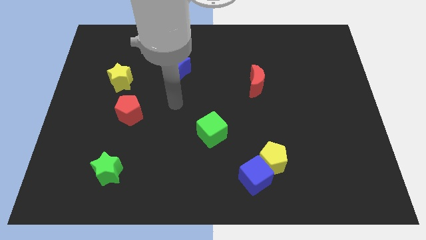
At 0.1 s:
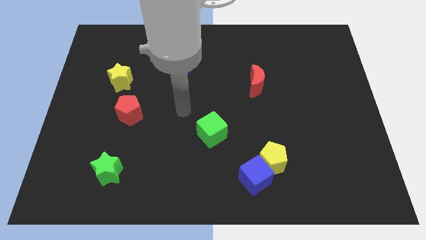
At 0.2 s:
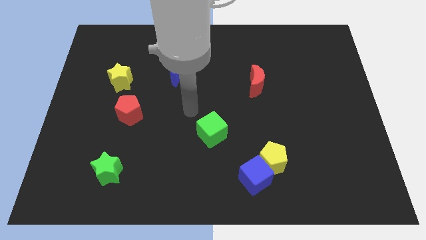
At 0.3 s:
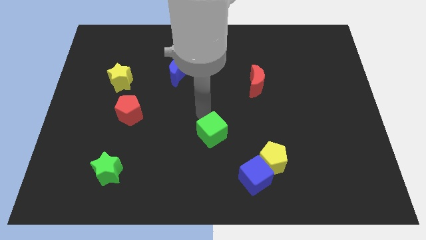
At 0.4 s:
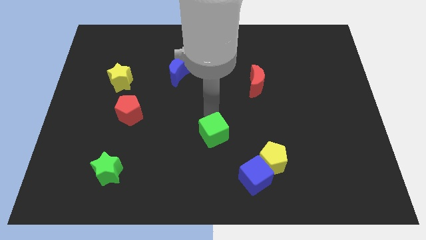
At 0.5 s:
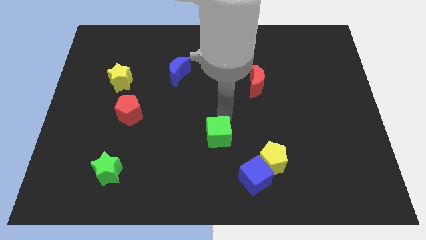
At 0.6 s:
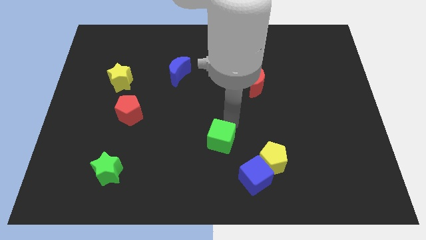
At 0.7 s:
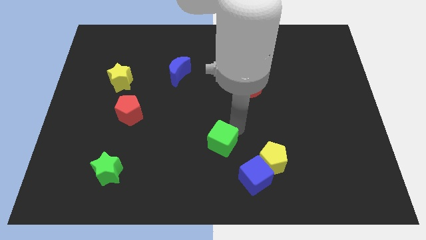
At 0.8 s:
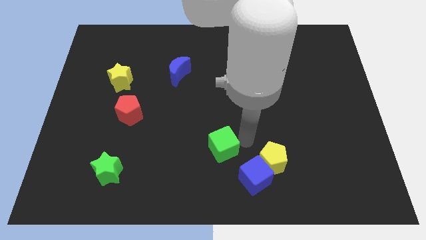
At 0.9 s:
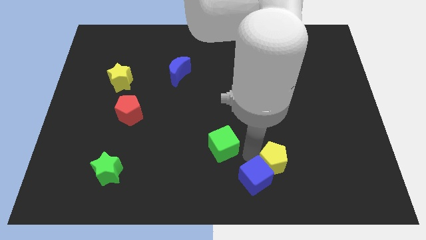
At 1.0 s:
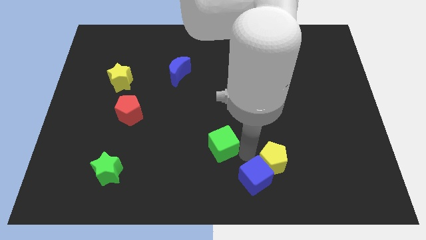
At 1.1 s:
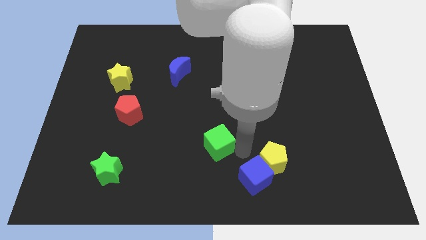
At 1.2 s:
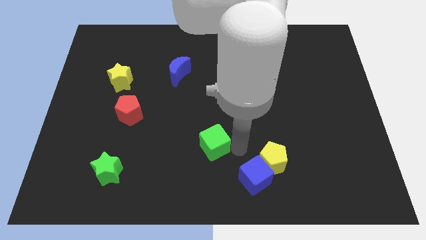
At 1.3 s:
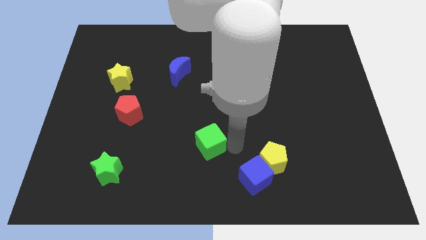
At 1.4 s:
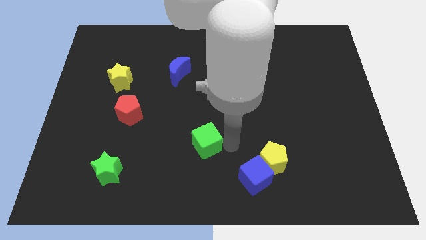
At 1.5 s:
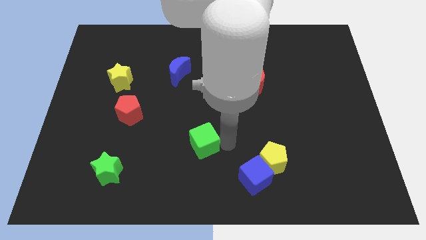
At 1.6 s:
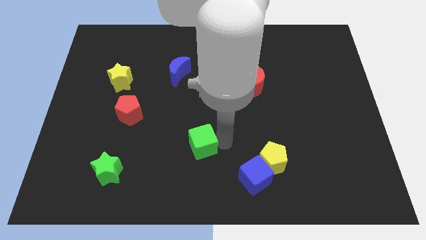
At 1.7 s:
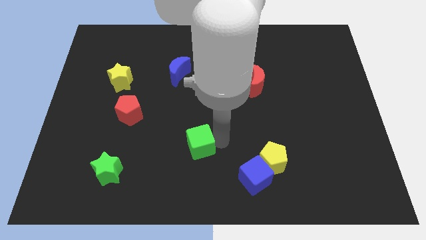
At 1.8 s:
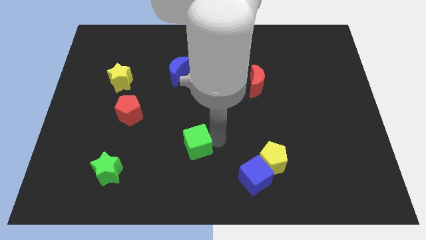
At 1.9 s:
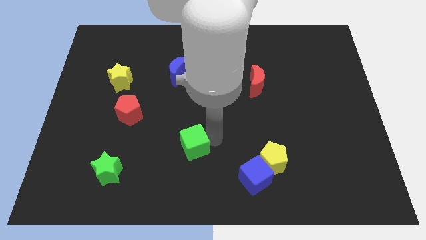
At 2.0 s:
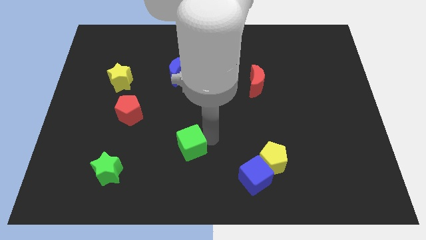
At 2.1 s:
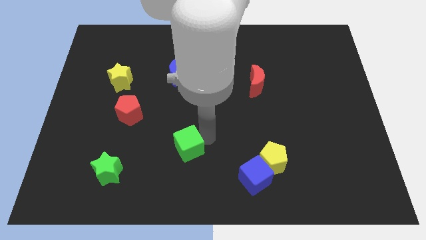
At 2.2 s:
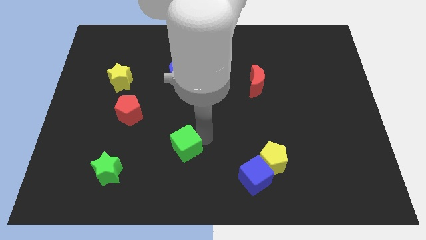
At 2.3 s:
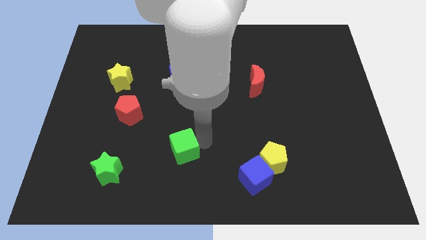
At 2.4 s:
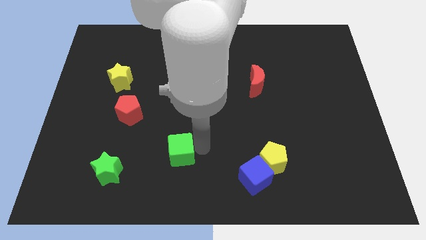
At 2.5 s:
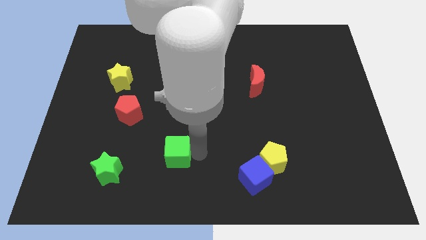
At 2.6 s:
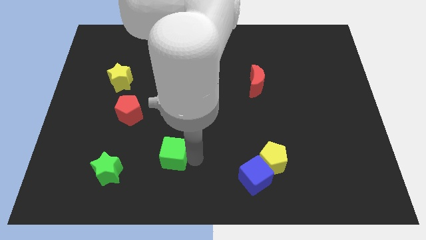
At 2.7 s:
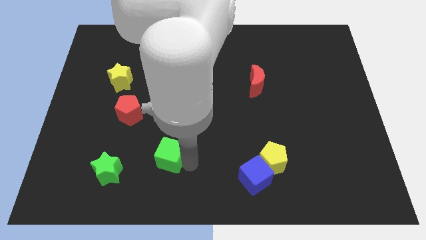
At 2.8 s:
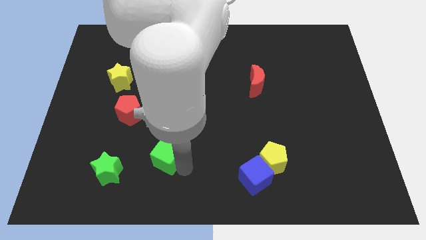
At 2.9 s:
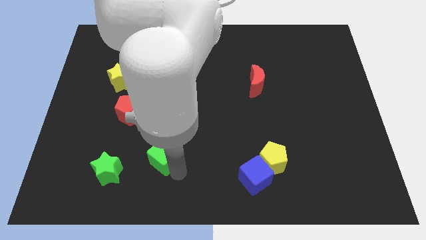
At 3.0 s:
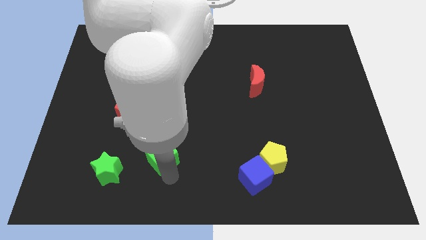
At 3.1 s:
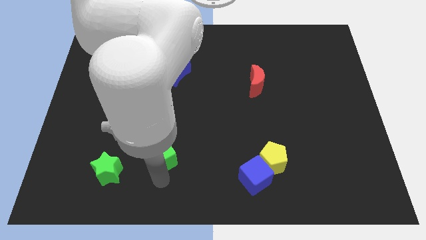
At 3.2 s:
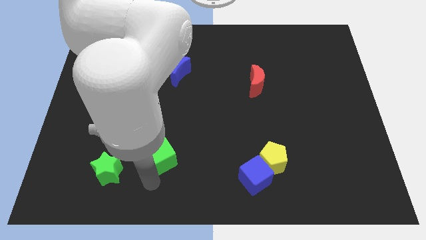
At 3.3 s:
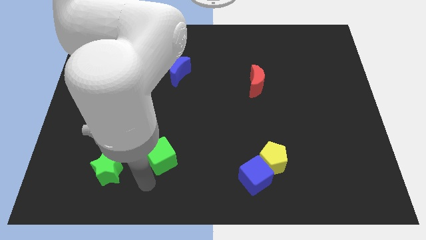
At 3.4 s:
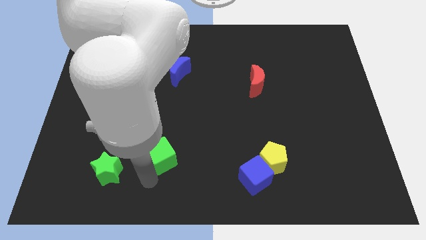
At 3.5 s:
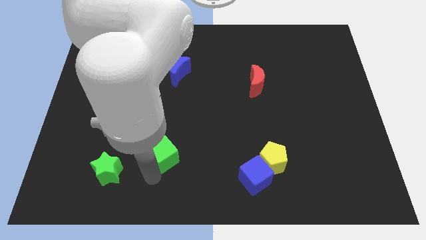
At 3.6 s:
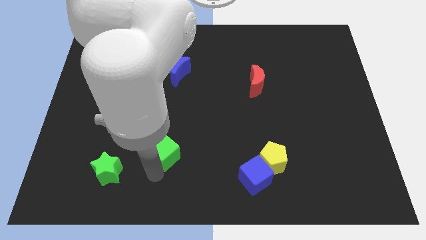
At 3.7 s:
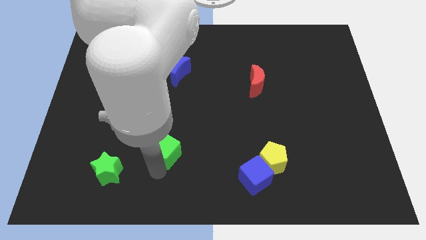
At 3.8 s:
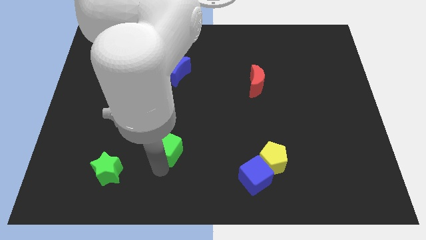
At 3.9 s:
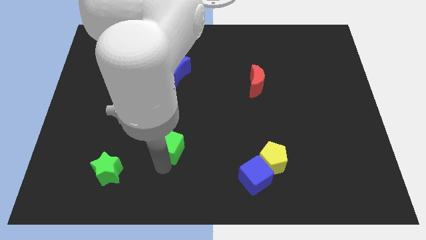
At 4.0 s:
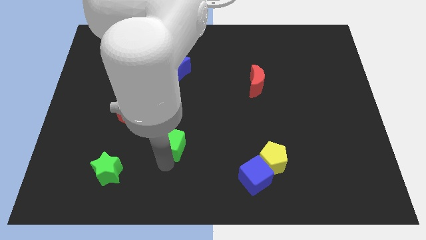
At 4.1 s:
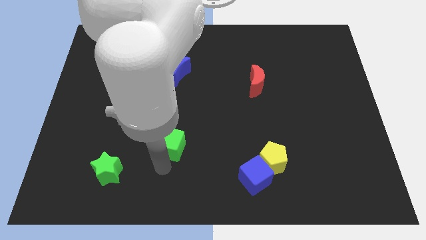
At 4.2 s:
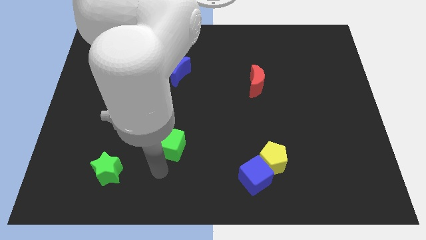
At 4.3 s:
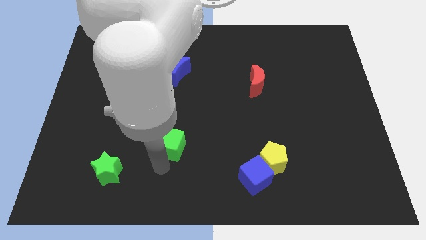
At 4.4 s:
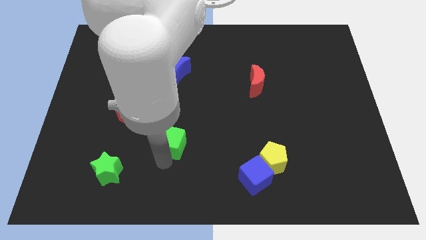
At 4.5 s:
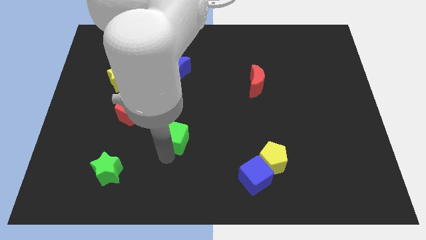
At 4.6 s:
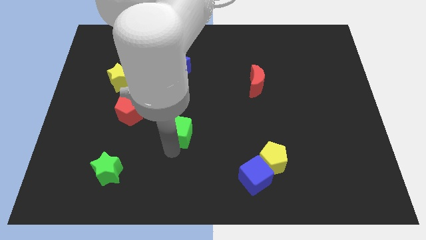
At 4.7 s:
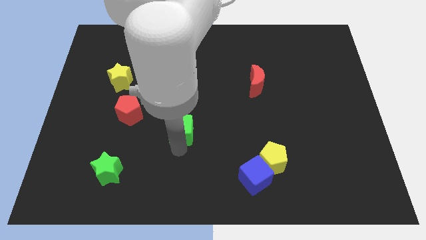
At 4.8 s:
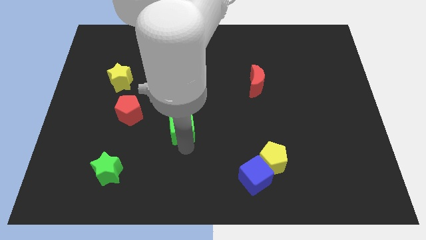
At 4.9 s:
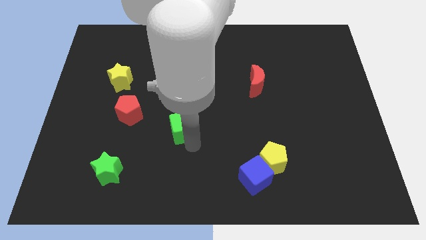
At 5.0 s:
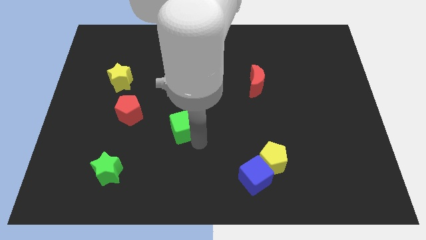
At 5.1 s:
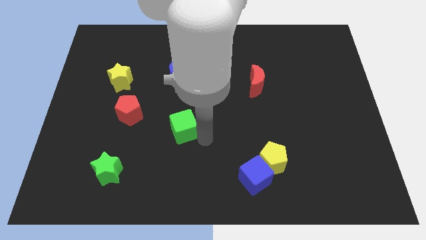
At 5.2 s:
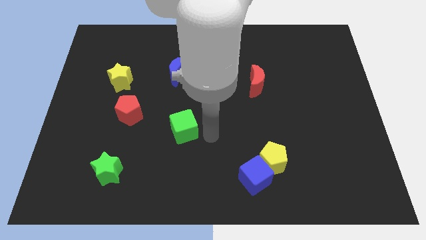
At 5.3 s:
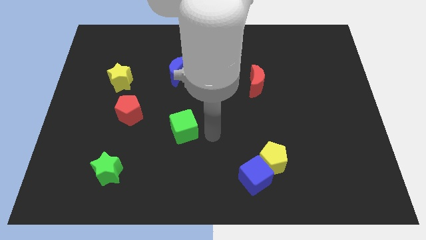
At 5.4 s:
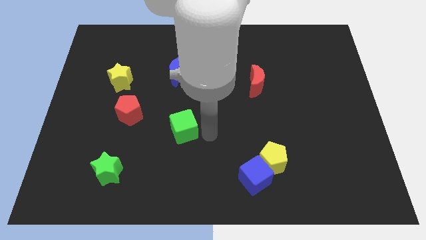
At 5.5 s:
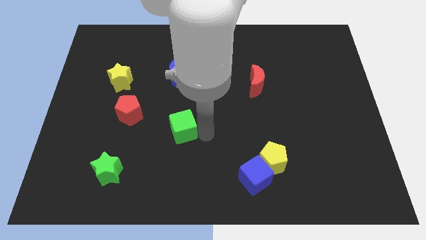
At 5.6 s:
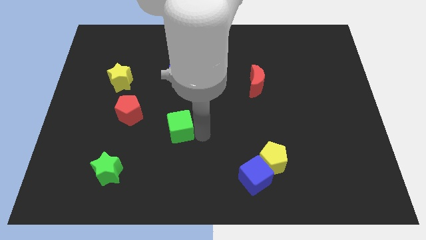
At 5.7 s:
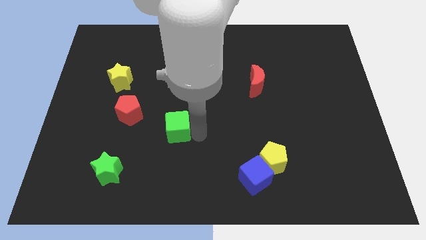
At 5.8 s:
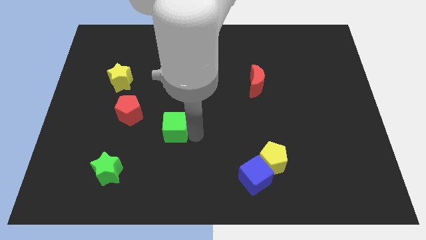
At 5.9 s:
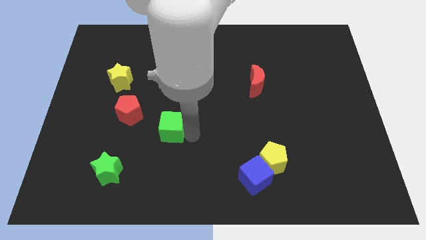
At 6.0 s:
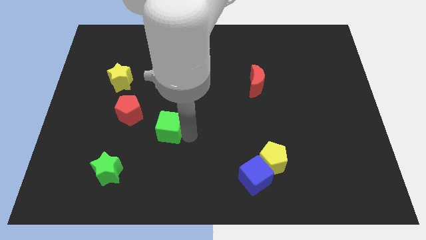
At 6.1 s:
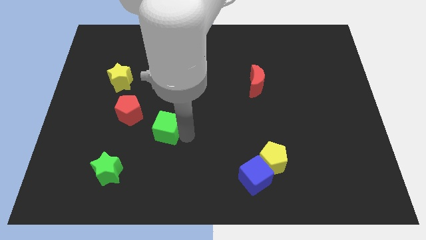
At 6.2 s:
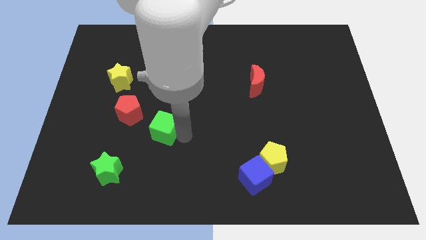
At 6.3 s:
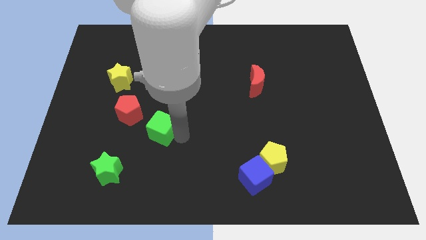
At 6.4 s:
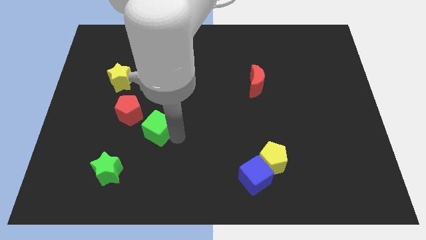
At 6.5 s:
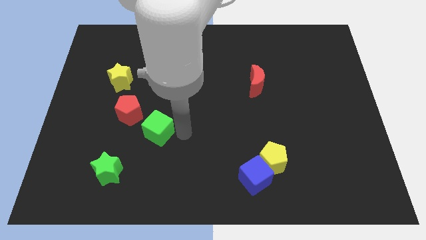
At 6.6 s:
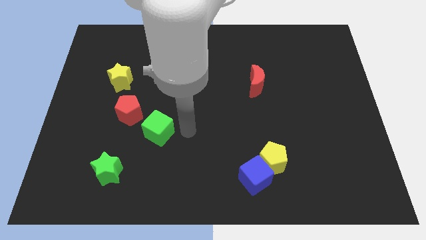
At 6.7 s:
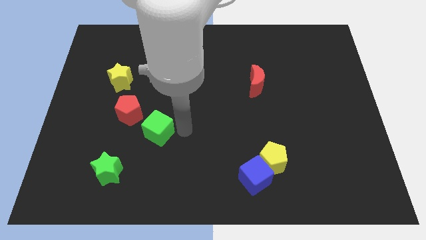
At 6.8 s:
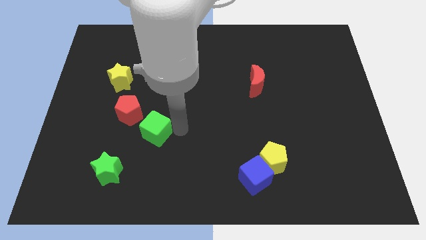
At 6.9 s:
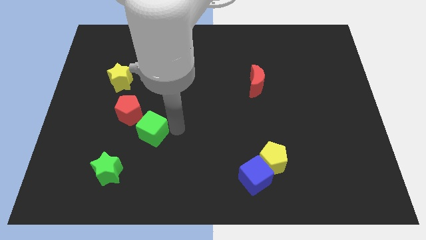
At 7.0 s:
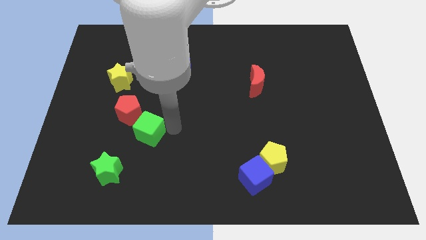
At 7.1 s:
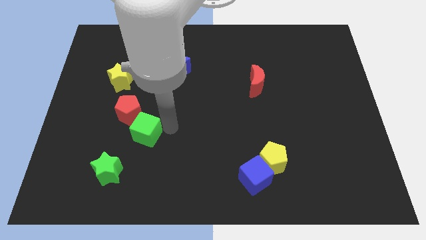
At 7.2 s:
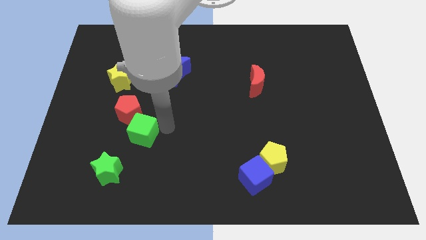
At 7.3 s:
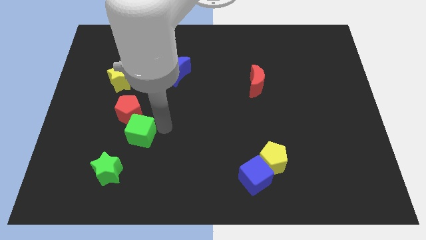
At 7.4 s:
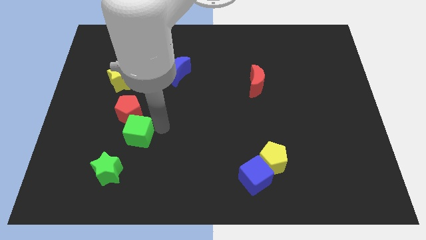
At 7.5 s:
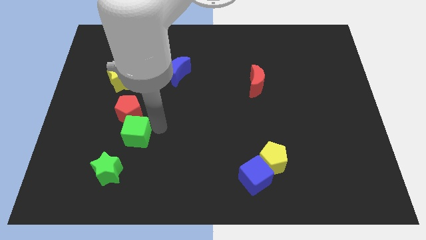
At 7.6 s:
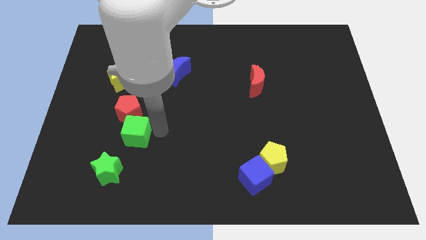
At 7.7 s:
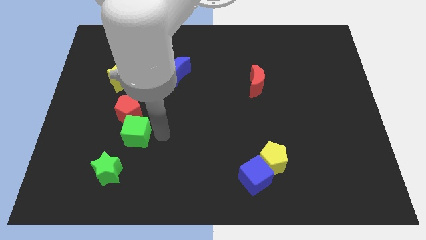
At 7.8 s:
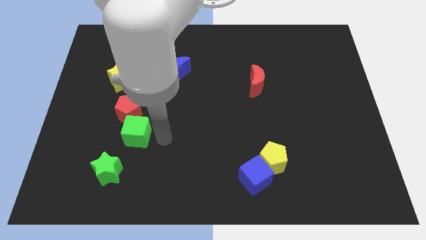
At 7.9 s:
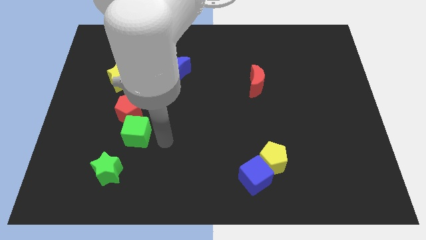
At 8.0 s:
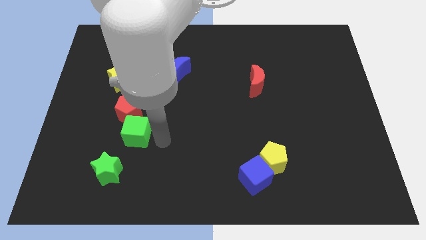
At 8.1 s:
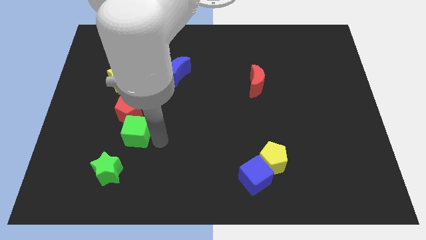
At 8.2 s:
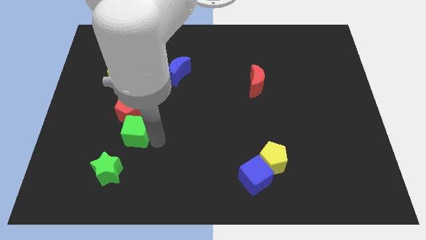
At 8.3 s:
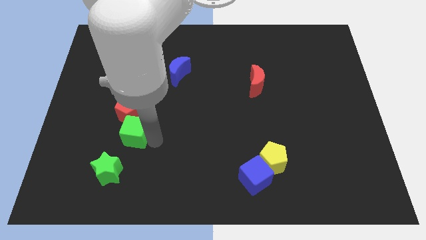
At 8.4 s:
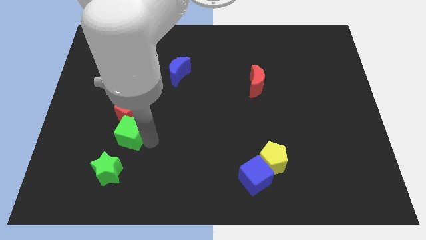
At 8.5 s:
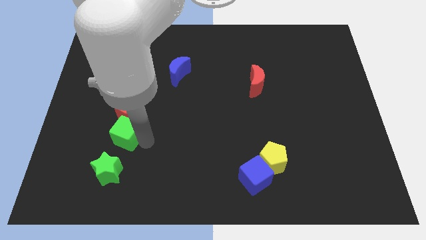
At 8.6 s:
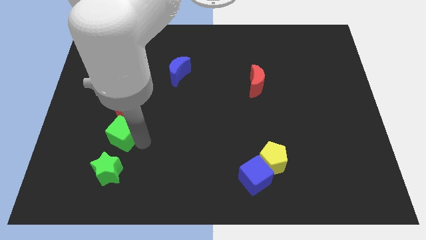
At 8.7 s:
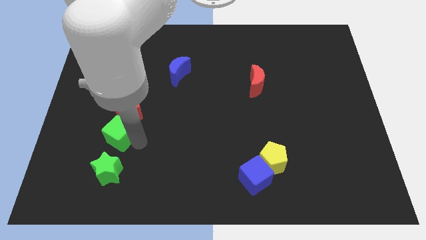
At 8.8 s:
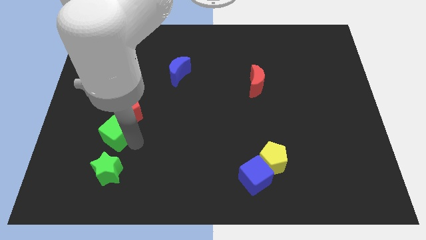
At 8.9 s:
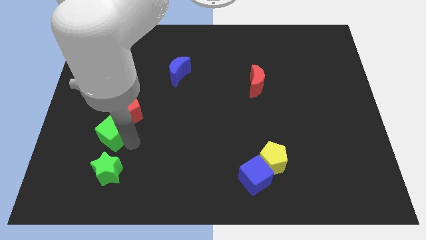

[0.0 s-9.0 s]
move the green cube to the bottom side of the yellow star
